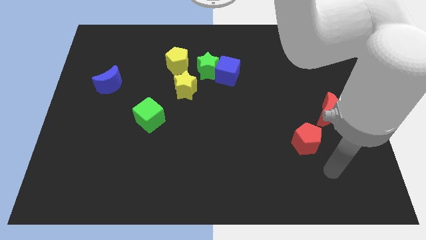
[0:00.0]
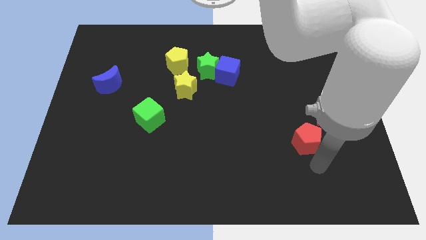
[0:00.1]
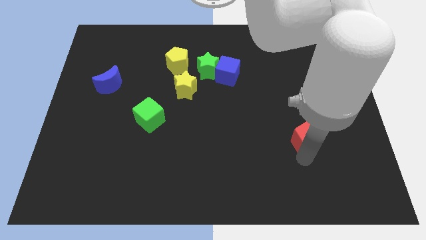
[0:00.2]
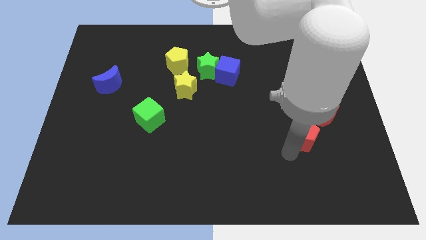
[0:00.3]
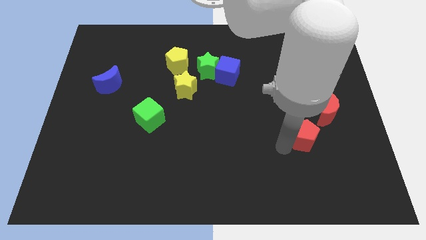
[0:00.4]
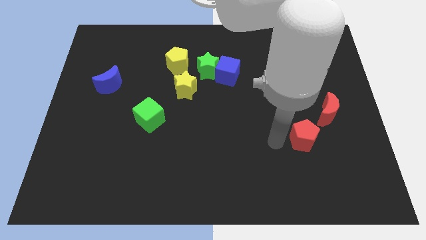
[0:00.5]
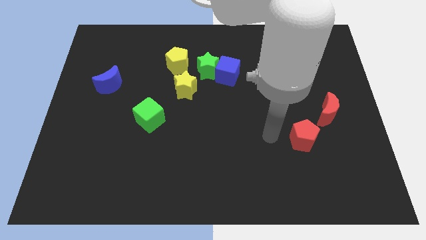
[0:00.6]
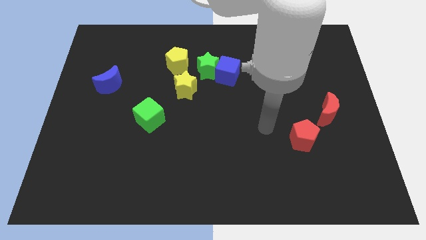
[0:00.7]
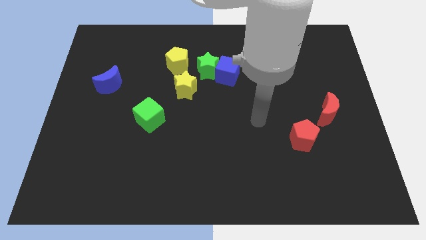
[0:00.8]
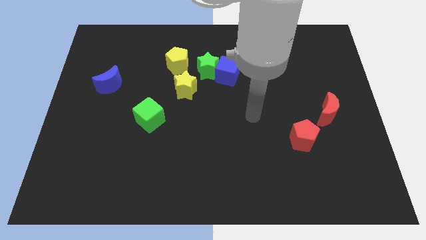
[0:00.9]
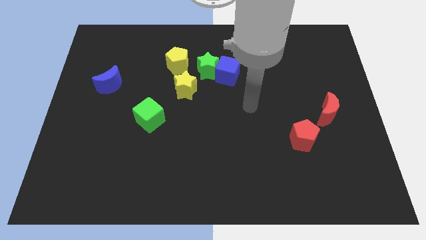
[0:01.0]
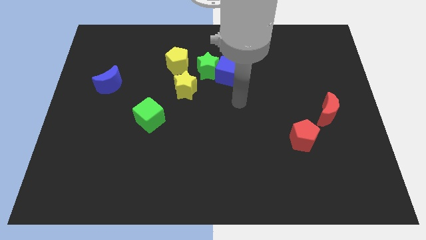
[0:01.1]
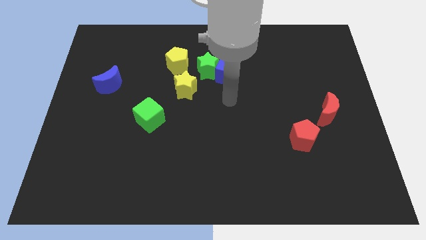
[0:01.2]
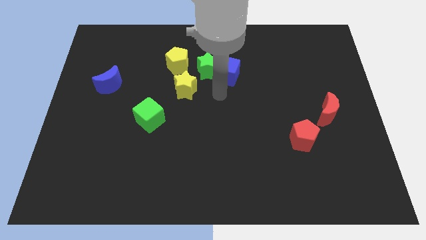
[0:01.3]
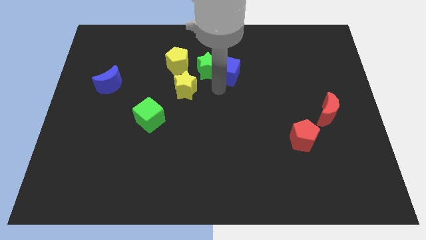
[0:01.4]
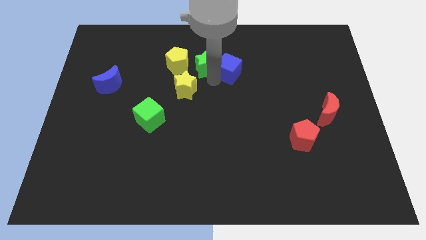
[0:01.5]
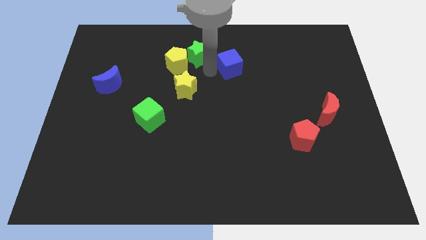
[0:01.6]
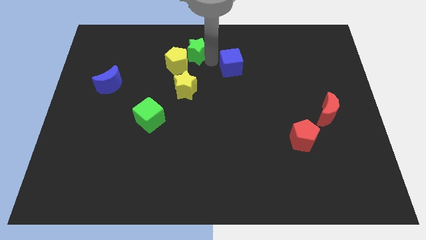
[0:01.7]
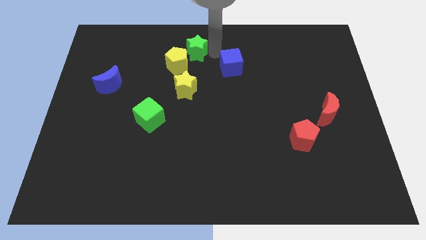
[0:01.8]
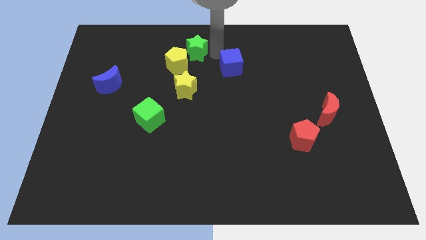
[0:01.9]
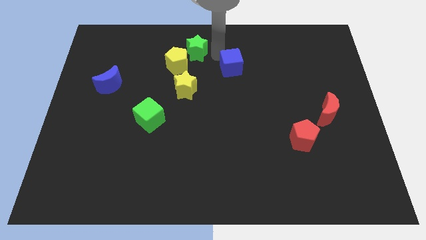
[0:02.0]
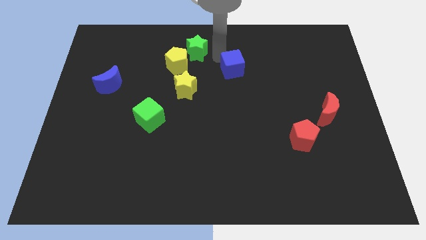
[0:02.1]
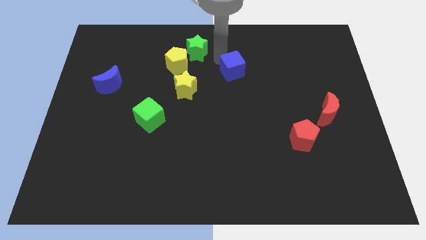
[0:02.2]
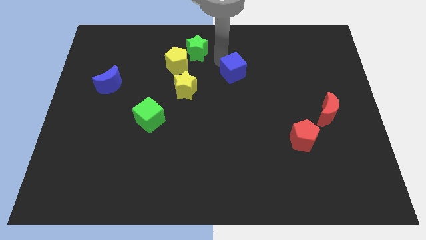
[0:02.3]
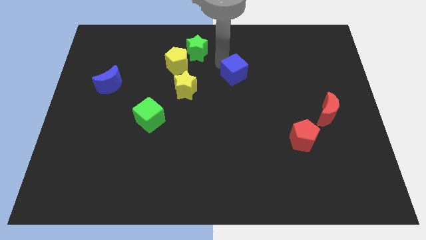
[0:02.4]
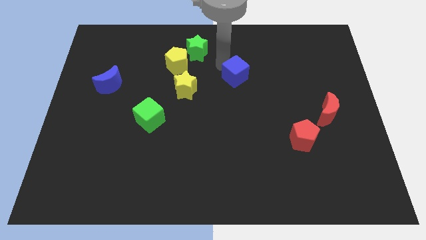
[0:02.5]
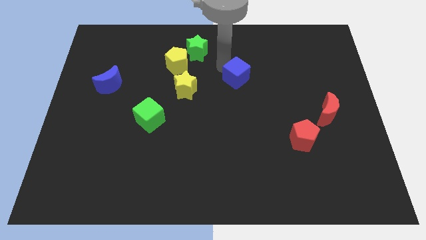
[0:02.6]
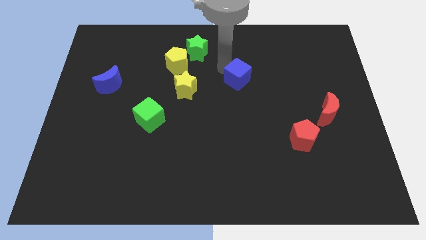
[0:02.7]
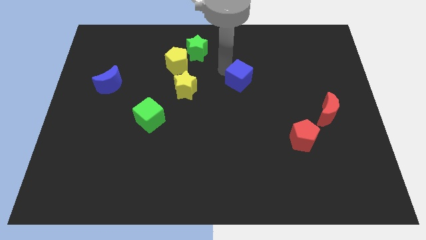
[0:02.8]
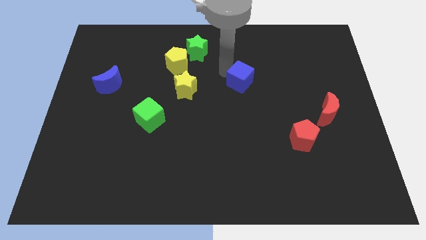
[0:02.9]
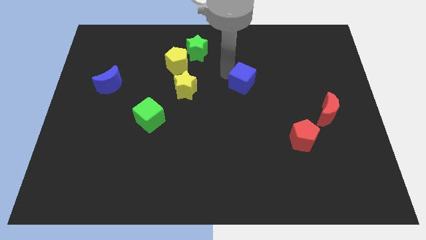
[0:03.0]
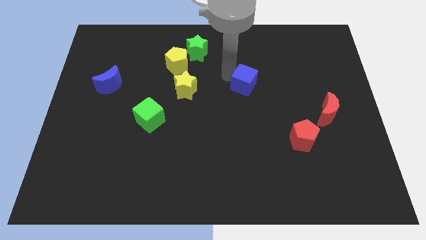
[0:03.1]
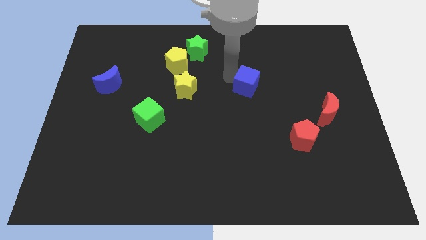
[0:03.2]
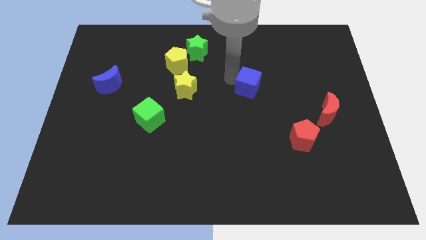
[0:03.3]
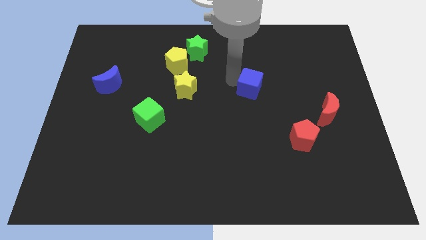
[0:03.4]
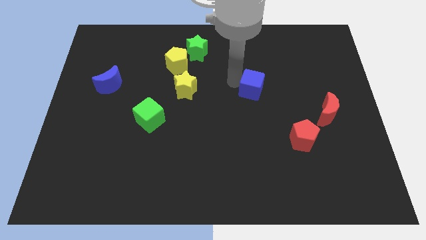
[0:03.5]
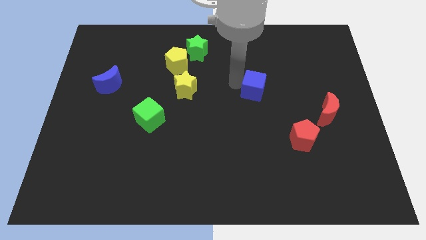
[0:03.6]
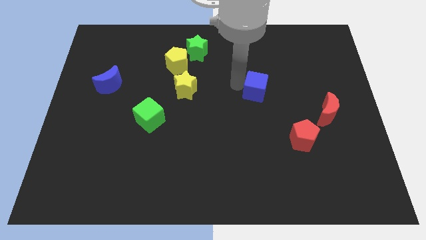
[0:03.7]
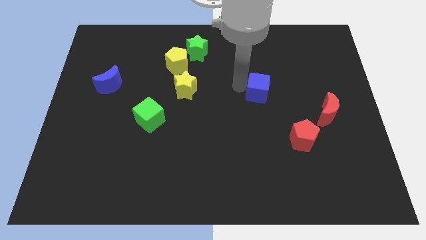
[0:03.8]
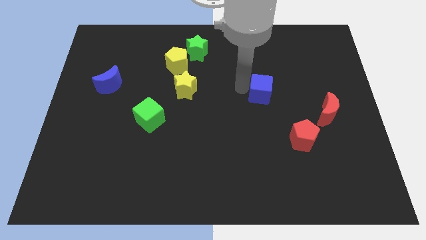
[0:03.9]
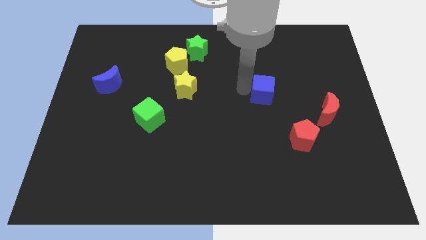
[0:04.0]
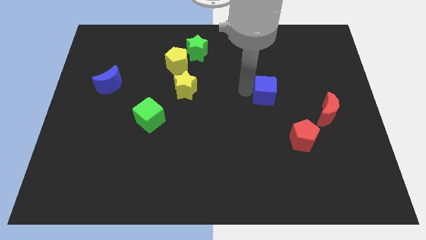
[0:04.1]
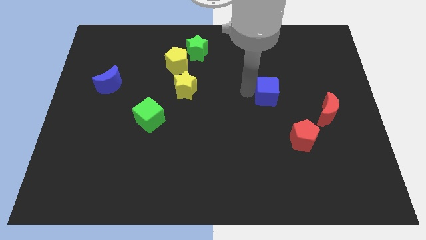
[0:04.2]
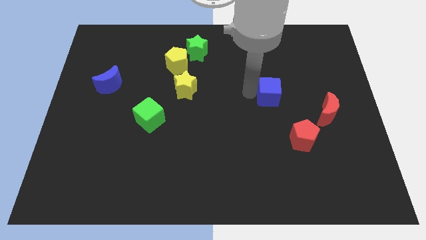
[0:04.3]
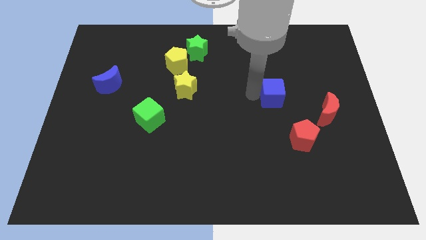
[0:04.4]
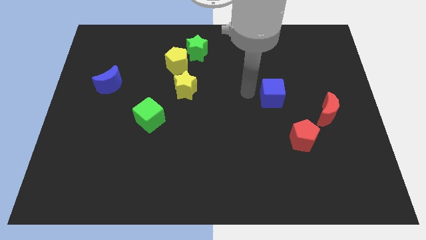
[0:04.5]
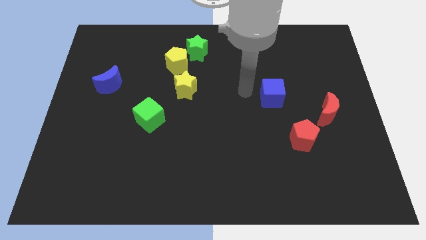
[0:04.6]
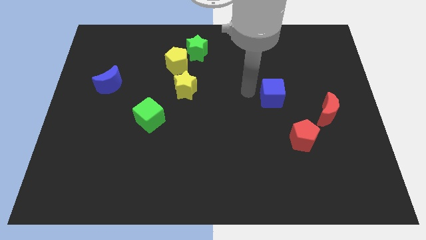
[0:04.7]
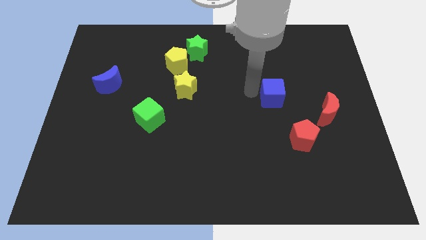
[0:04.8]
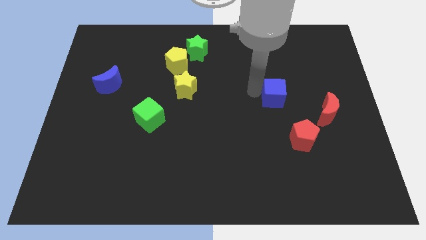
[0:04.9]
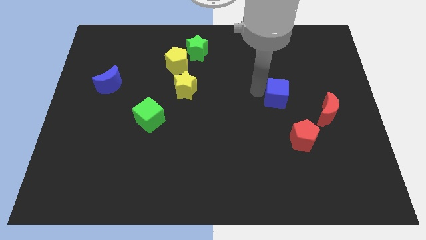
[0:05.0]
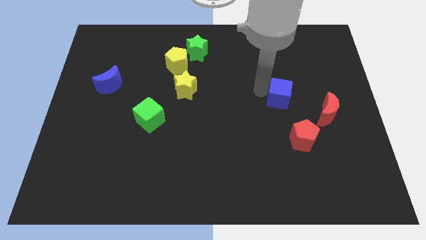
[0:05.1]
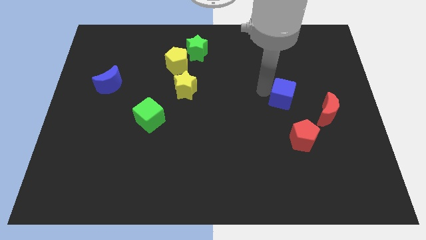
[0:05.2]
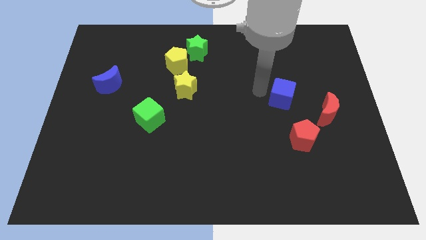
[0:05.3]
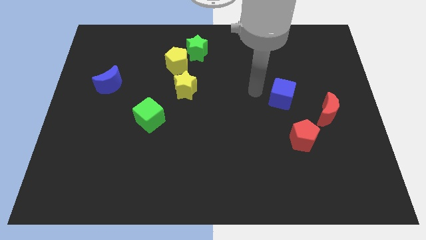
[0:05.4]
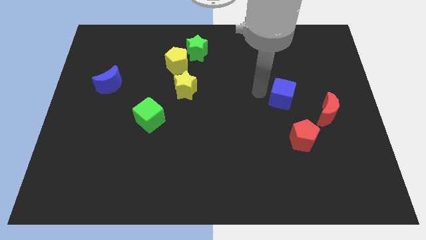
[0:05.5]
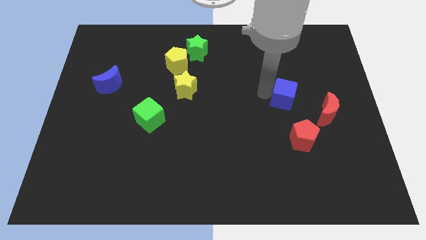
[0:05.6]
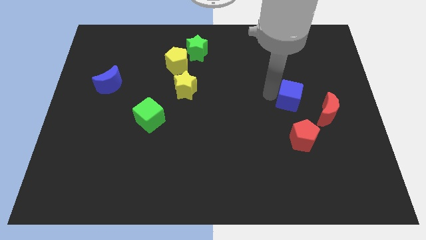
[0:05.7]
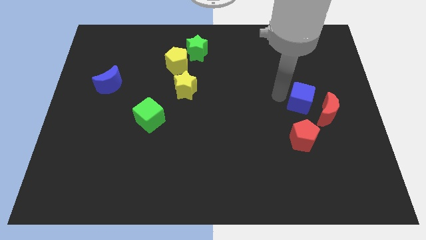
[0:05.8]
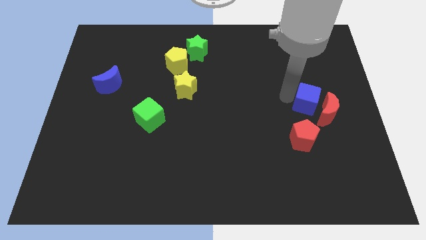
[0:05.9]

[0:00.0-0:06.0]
slide the blue cube close to the red moon

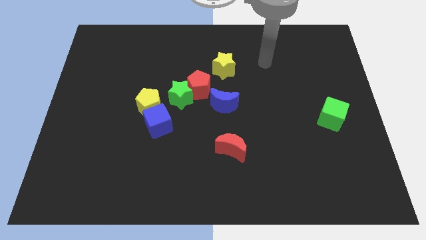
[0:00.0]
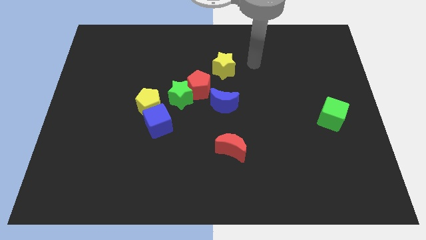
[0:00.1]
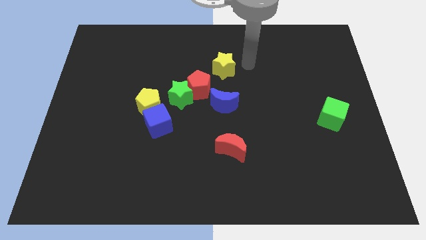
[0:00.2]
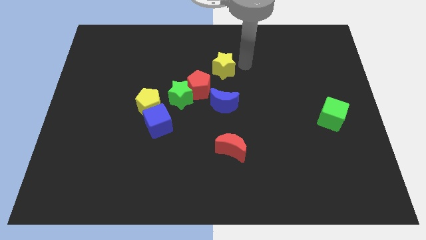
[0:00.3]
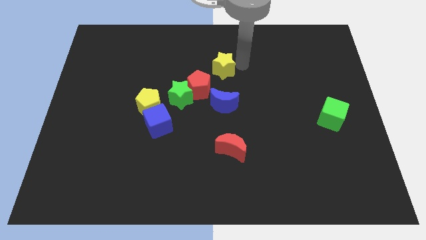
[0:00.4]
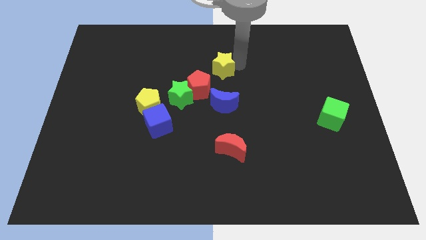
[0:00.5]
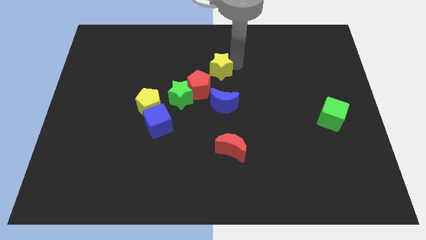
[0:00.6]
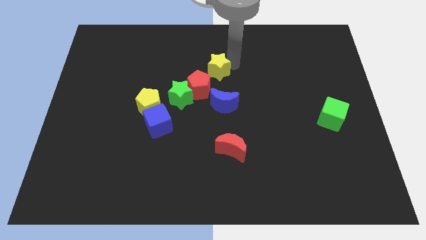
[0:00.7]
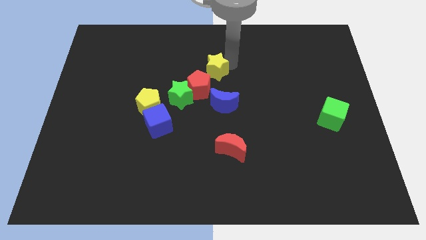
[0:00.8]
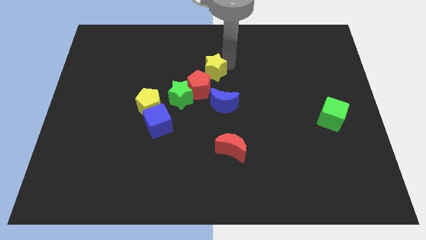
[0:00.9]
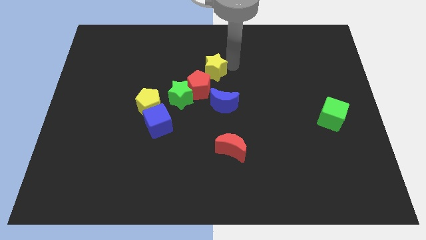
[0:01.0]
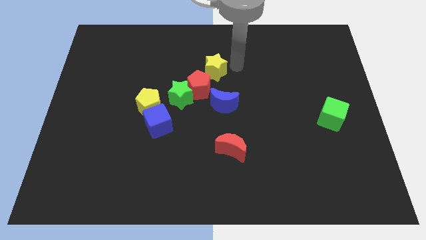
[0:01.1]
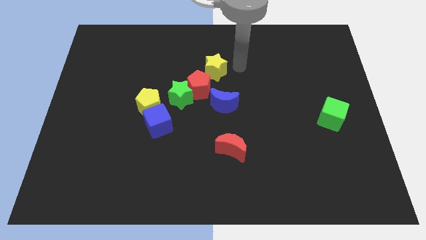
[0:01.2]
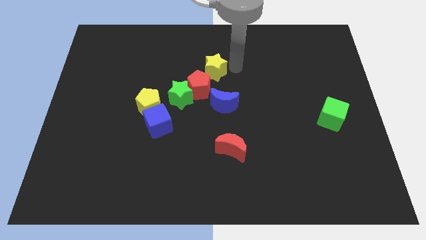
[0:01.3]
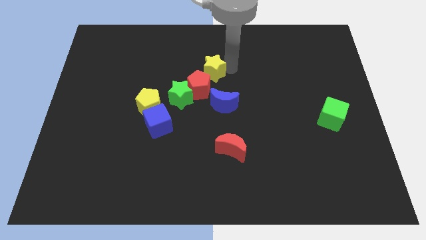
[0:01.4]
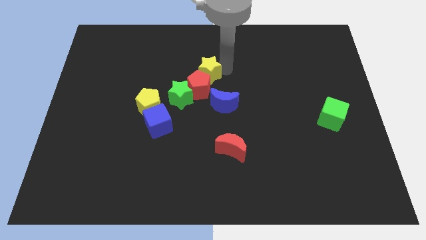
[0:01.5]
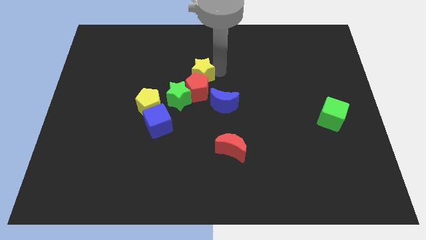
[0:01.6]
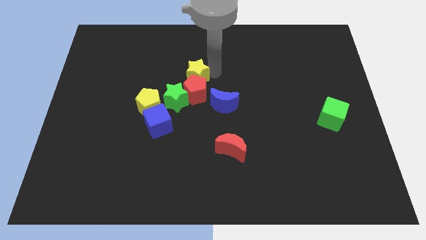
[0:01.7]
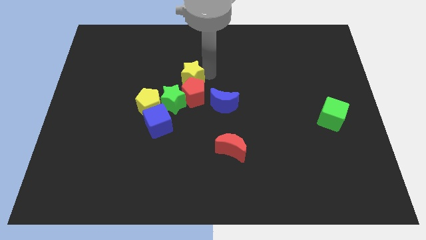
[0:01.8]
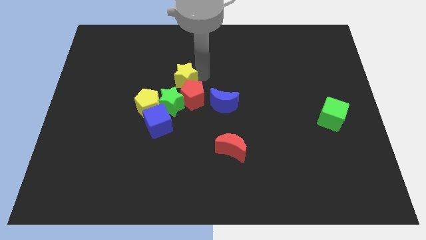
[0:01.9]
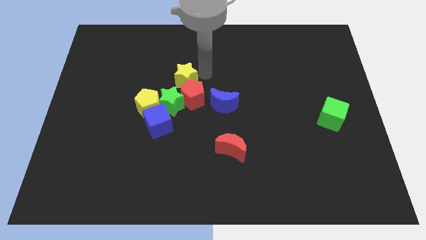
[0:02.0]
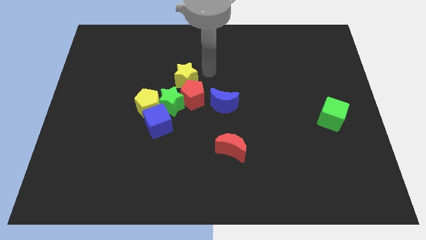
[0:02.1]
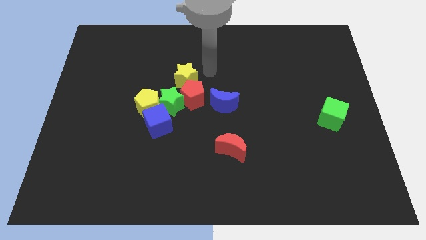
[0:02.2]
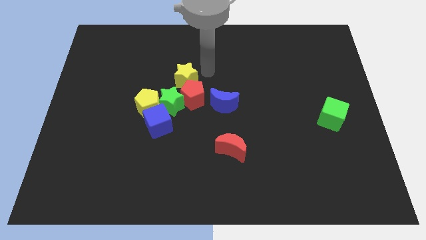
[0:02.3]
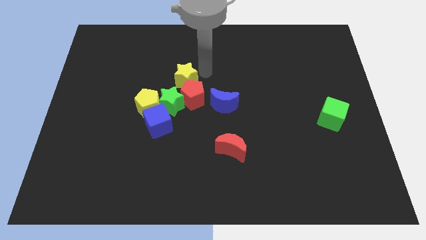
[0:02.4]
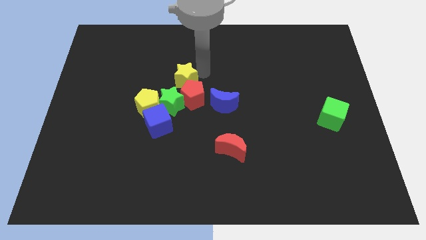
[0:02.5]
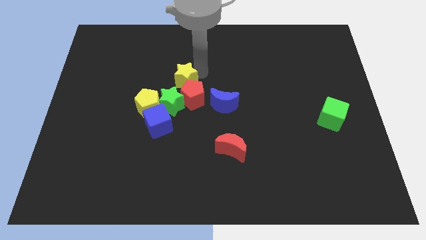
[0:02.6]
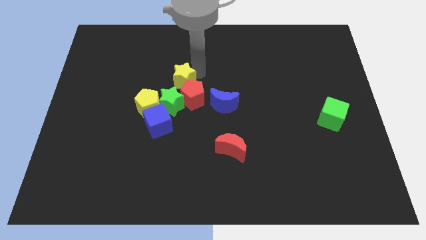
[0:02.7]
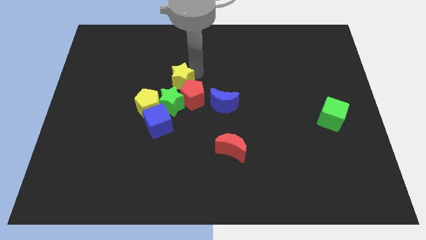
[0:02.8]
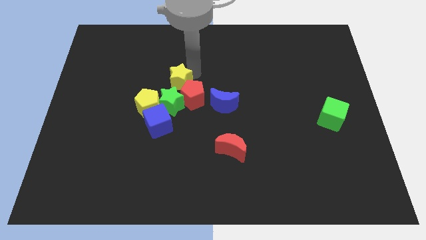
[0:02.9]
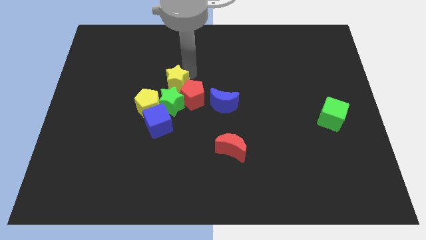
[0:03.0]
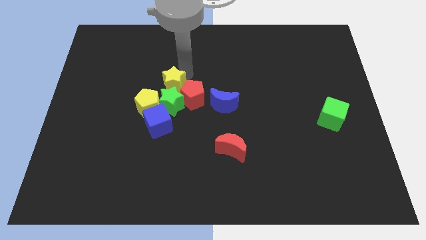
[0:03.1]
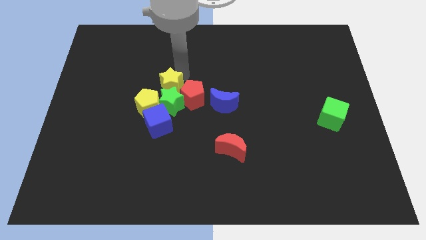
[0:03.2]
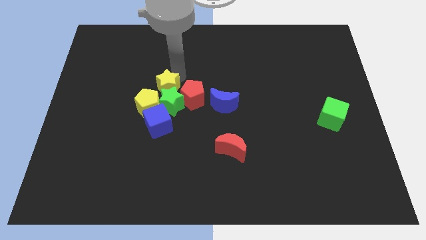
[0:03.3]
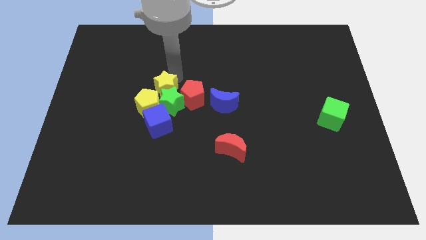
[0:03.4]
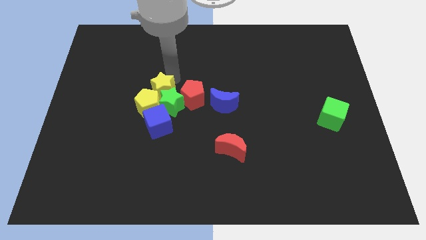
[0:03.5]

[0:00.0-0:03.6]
put the yellow star towards the yellow pentagon
